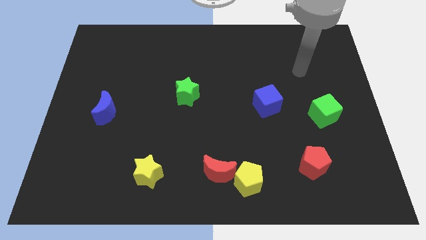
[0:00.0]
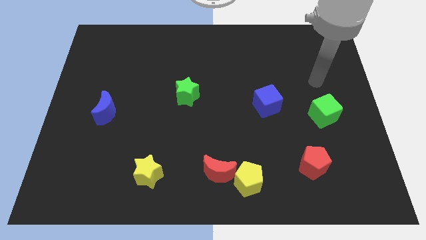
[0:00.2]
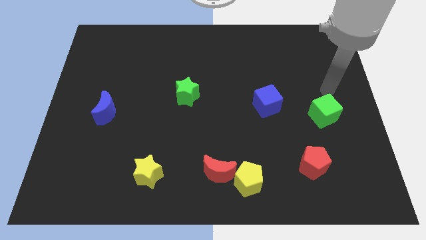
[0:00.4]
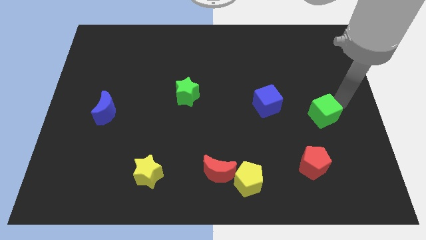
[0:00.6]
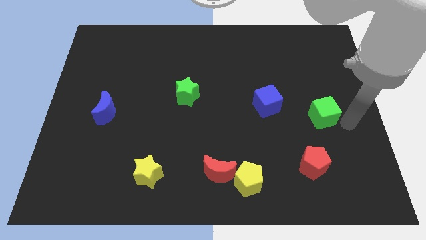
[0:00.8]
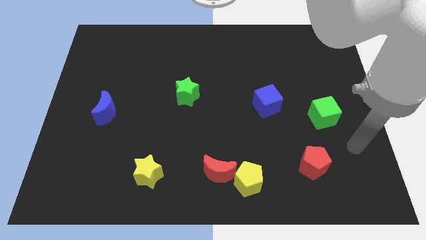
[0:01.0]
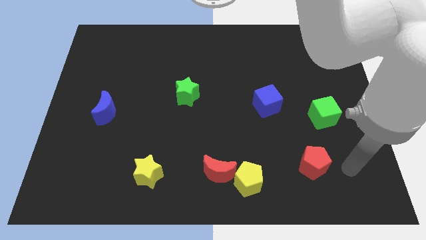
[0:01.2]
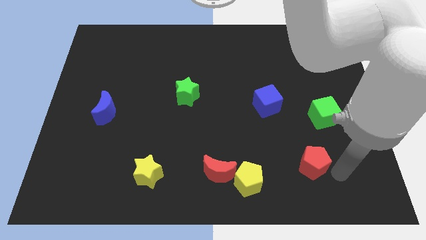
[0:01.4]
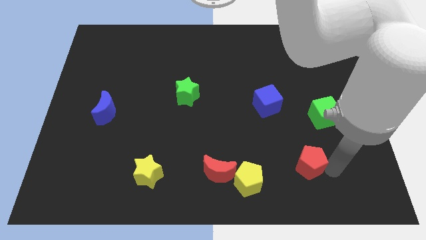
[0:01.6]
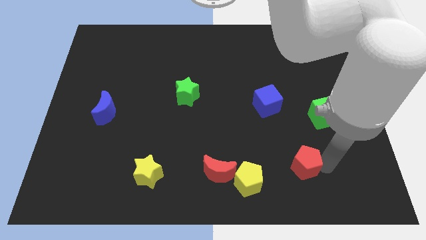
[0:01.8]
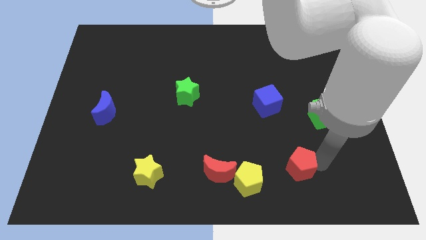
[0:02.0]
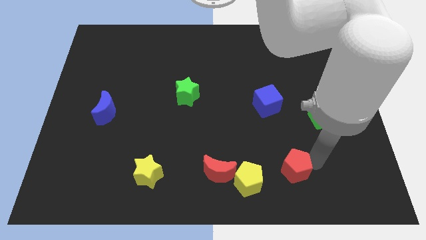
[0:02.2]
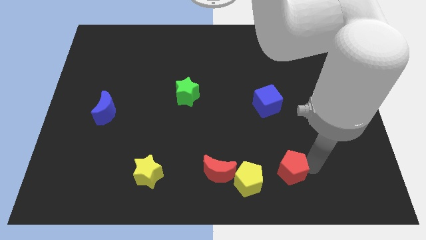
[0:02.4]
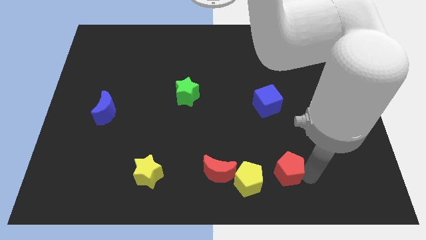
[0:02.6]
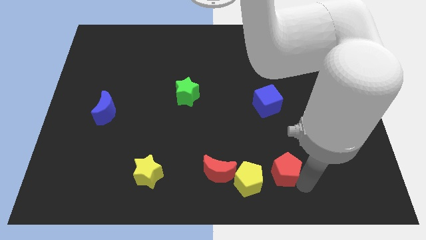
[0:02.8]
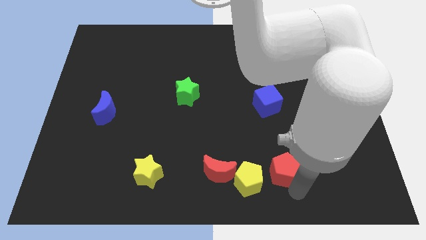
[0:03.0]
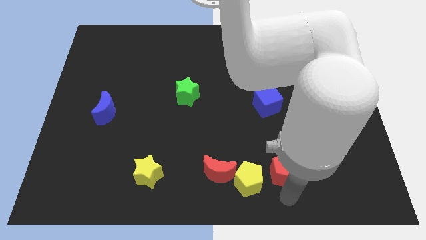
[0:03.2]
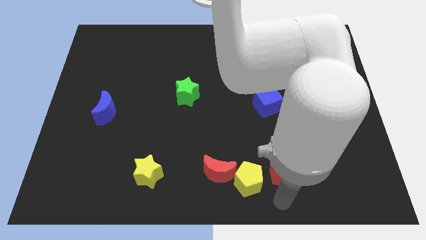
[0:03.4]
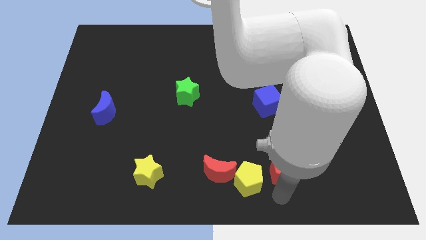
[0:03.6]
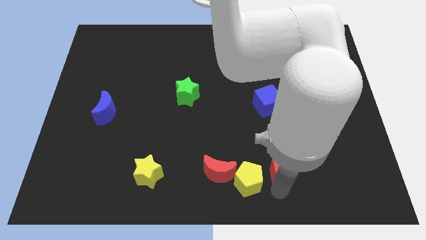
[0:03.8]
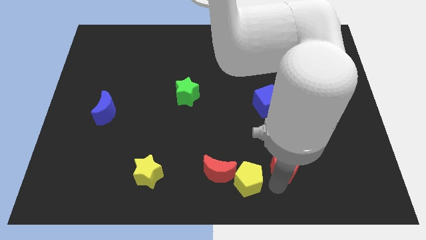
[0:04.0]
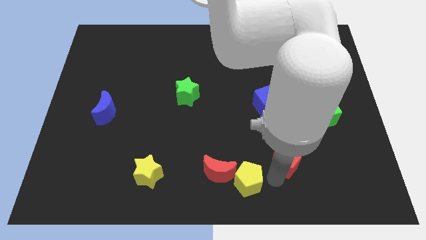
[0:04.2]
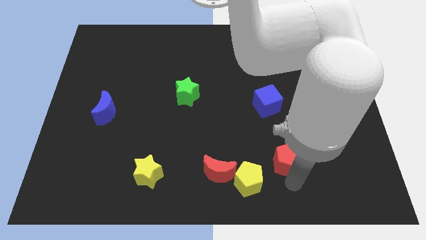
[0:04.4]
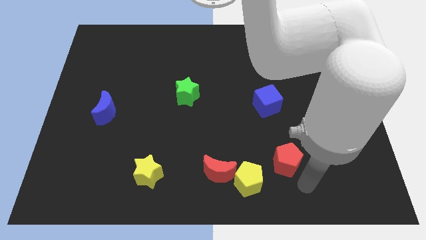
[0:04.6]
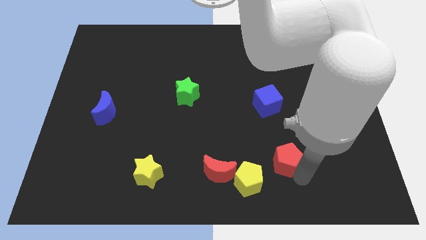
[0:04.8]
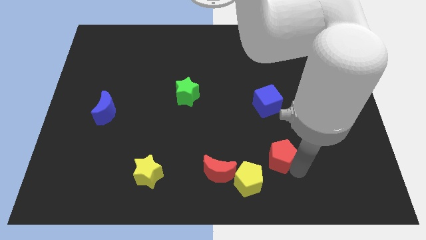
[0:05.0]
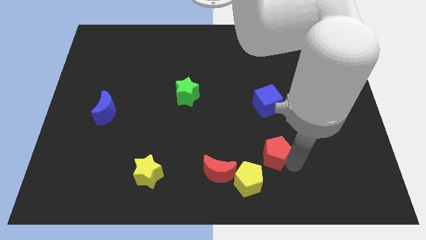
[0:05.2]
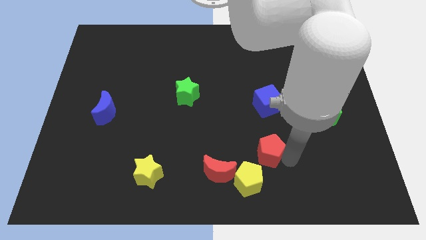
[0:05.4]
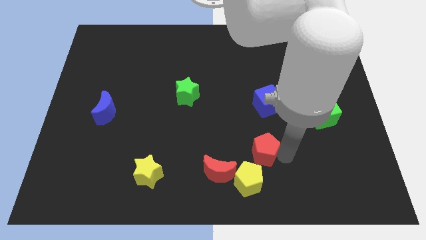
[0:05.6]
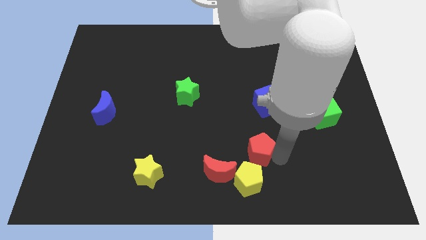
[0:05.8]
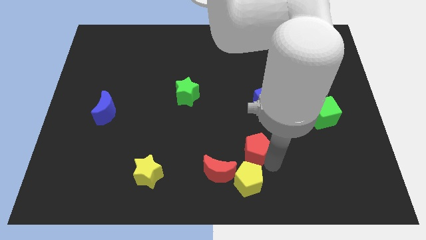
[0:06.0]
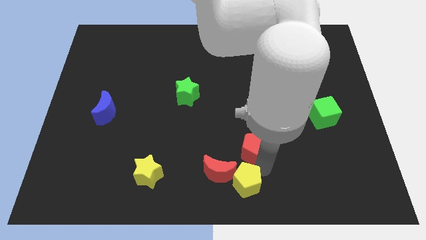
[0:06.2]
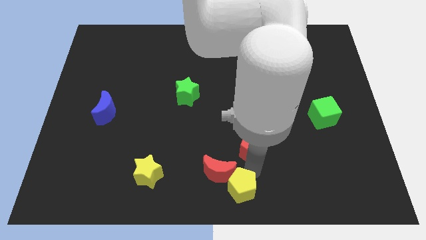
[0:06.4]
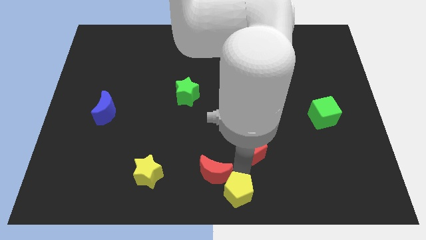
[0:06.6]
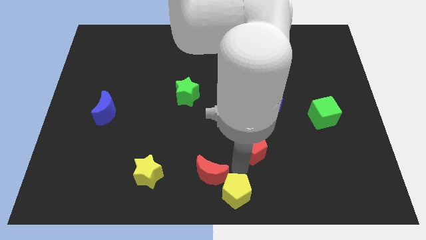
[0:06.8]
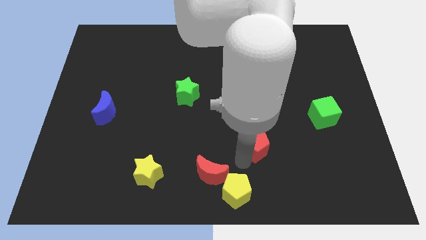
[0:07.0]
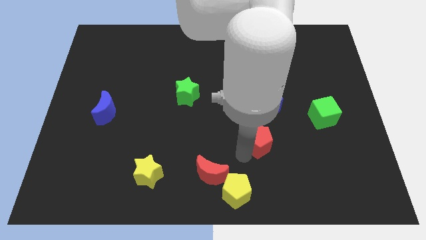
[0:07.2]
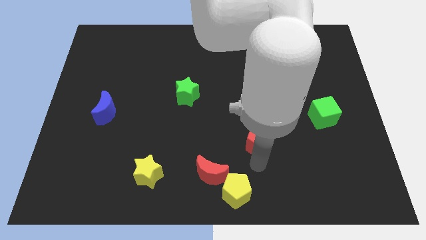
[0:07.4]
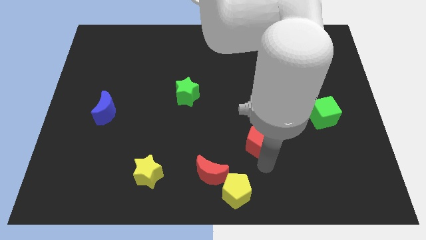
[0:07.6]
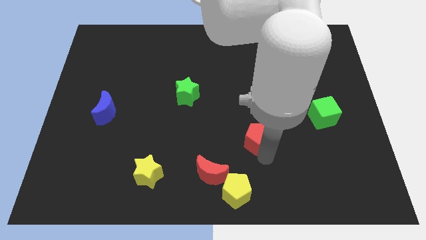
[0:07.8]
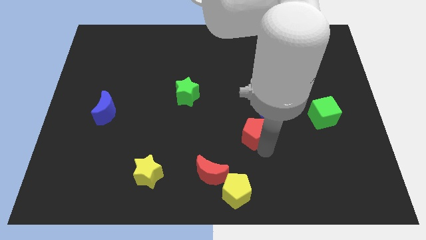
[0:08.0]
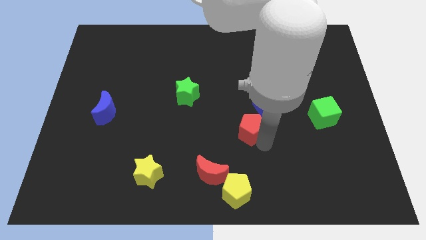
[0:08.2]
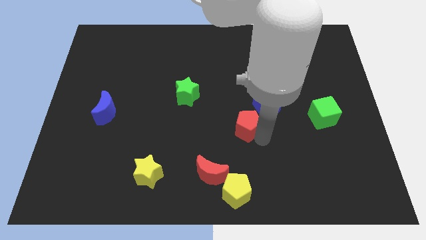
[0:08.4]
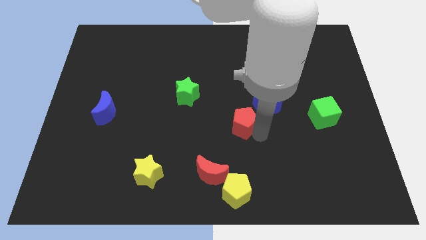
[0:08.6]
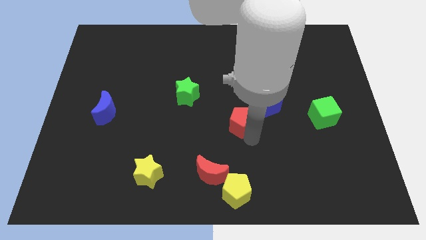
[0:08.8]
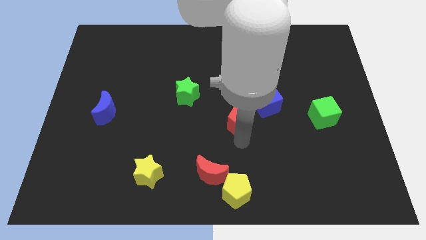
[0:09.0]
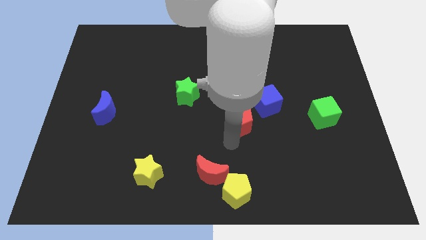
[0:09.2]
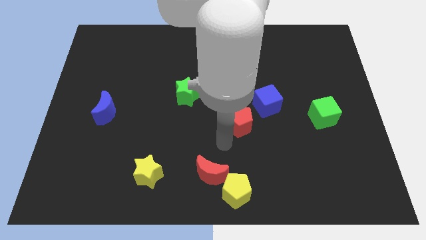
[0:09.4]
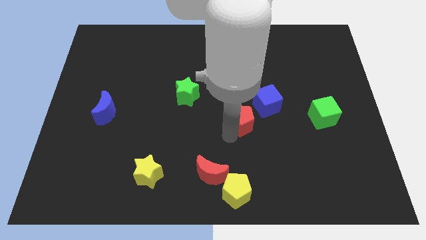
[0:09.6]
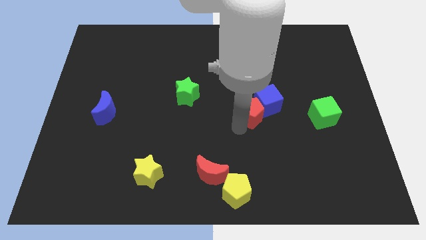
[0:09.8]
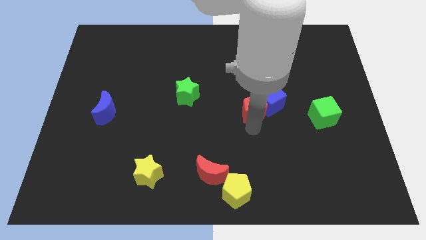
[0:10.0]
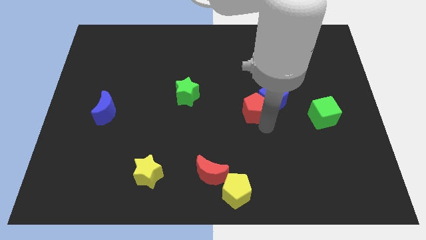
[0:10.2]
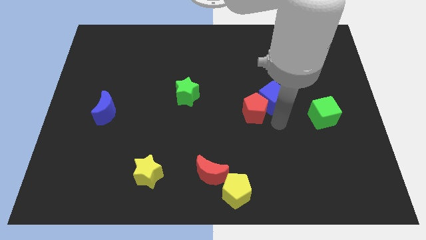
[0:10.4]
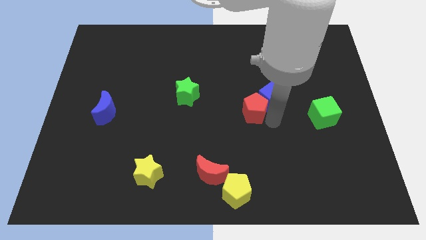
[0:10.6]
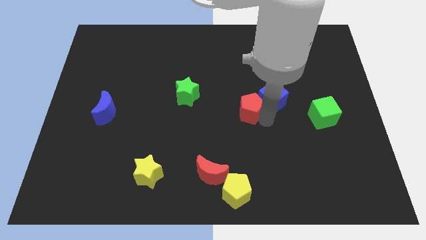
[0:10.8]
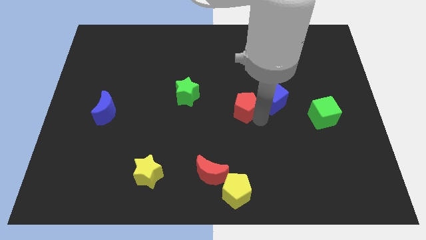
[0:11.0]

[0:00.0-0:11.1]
move the red pentagon up and to the left diagonally

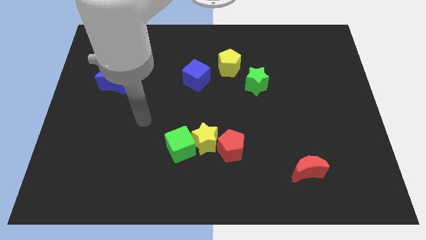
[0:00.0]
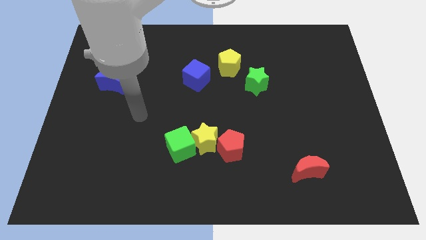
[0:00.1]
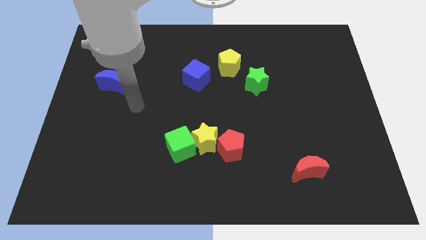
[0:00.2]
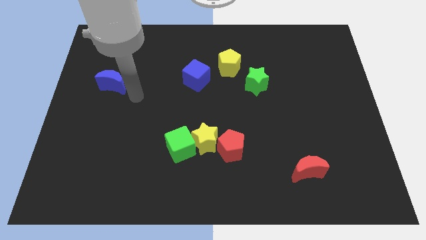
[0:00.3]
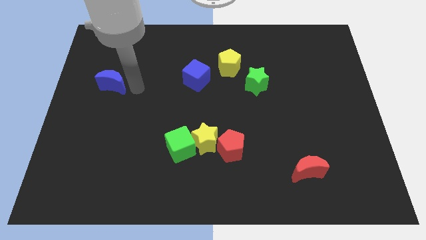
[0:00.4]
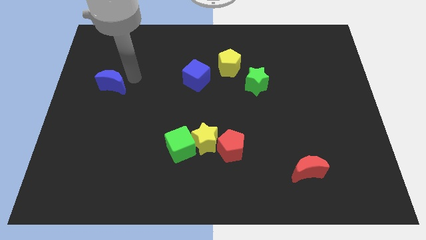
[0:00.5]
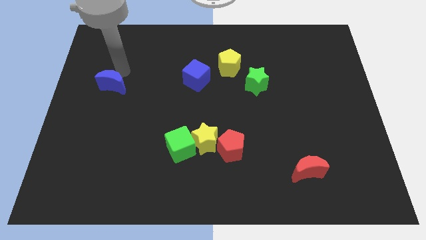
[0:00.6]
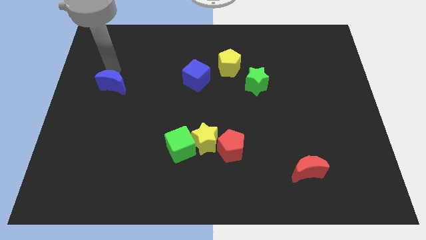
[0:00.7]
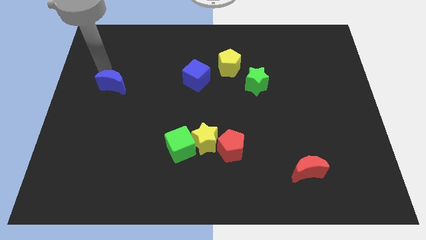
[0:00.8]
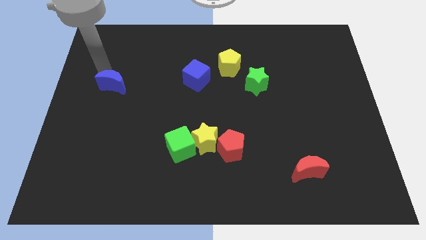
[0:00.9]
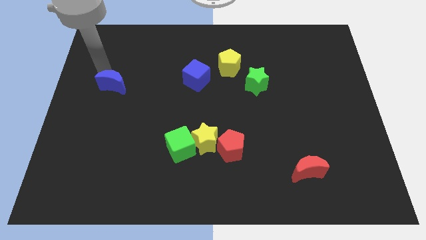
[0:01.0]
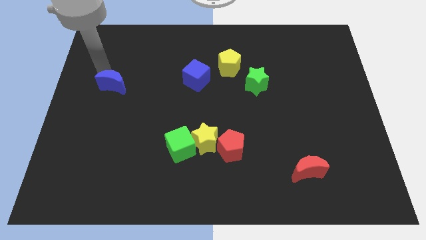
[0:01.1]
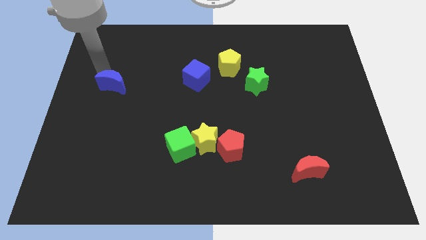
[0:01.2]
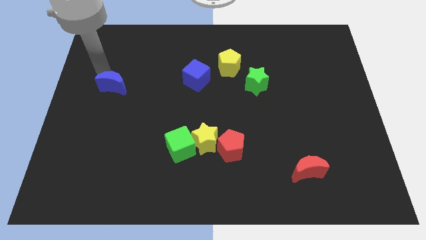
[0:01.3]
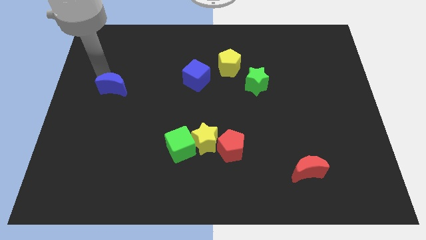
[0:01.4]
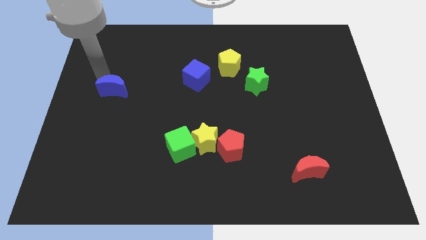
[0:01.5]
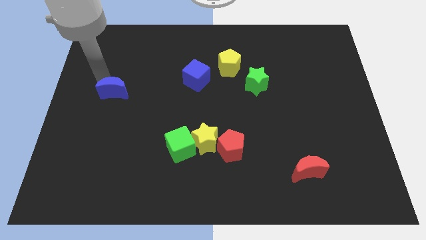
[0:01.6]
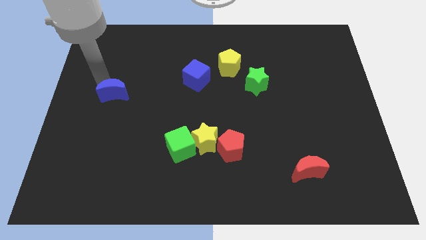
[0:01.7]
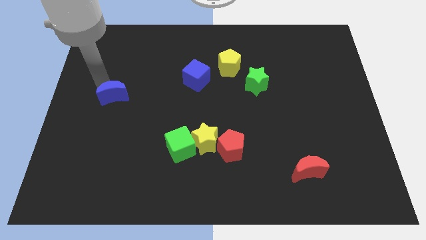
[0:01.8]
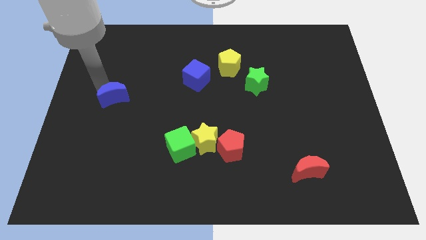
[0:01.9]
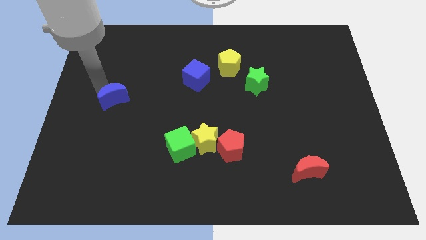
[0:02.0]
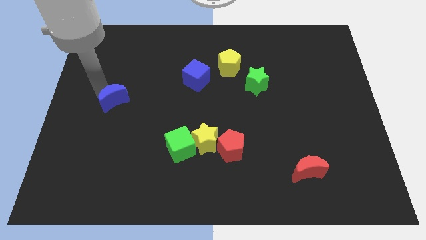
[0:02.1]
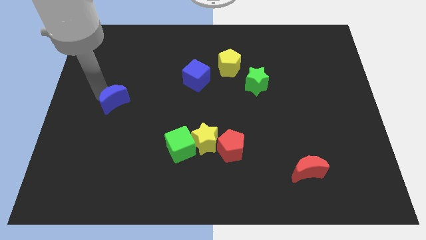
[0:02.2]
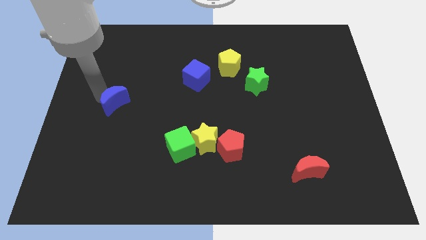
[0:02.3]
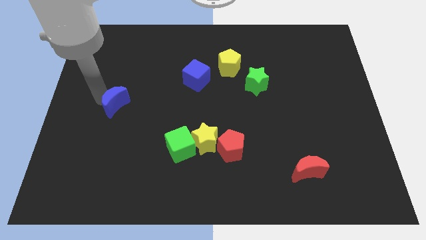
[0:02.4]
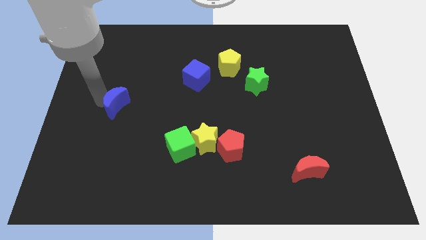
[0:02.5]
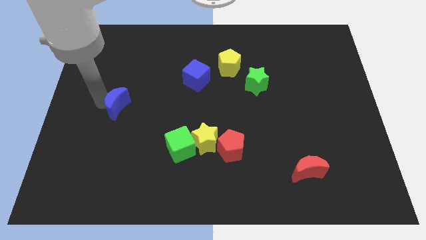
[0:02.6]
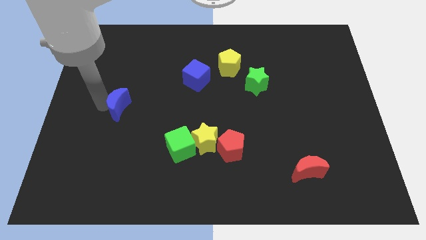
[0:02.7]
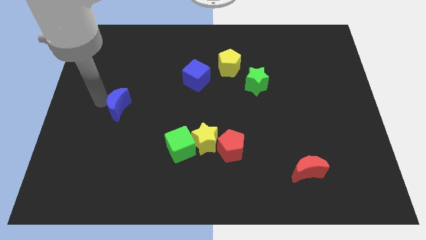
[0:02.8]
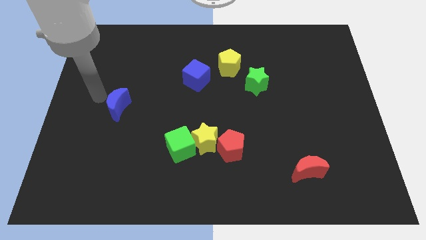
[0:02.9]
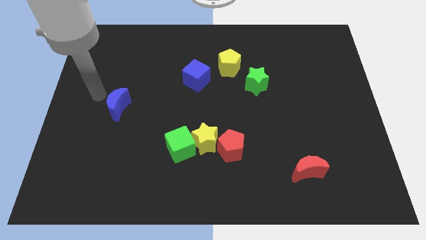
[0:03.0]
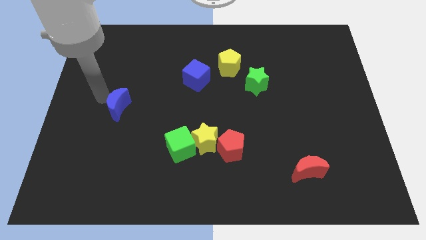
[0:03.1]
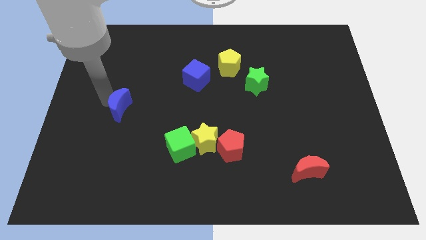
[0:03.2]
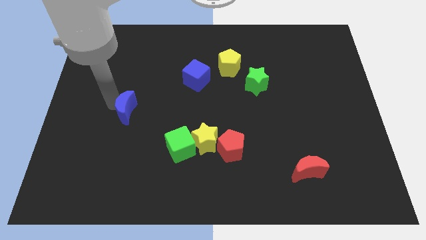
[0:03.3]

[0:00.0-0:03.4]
move the blue moon downwards and to the right diagonally a bit
